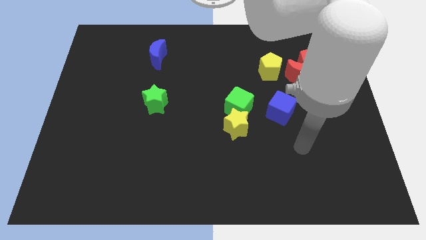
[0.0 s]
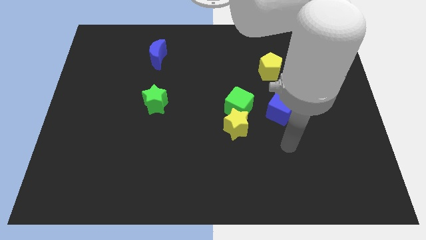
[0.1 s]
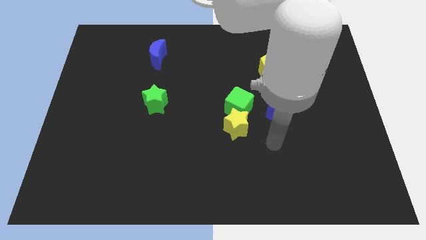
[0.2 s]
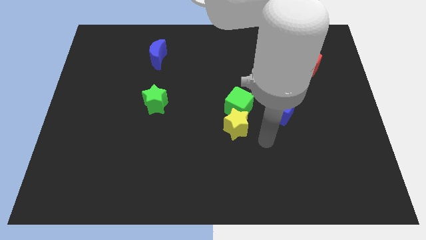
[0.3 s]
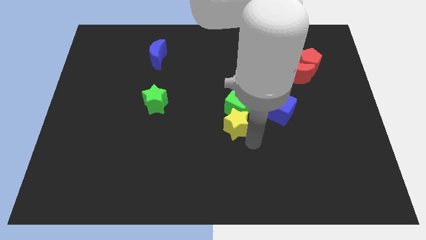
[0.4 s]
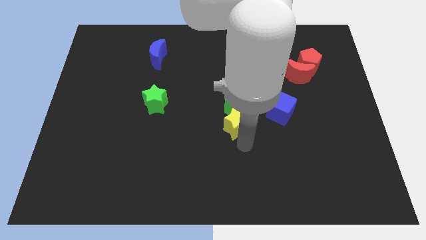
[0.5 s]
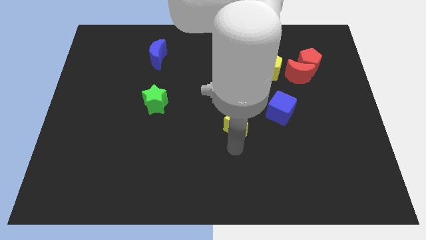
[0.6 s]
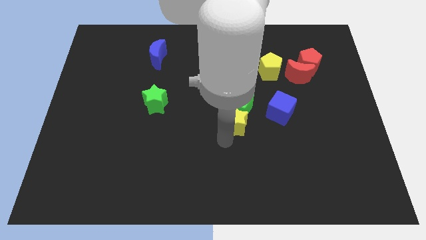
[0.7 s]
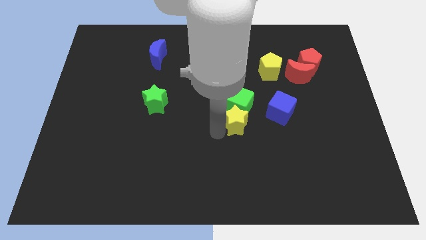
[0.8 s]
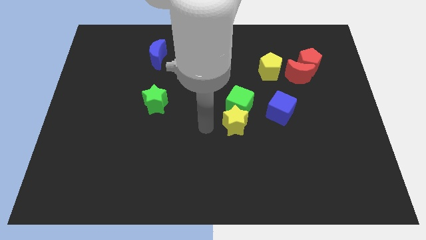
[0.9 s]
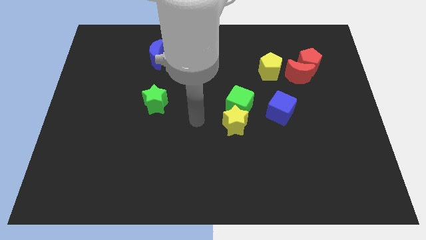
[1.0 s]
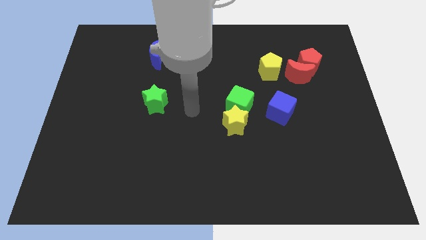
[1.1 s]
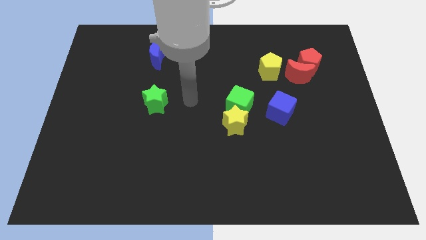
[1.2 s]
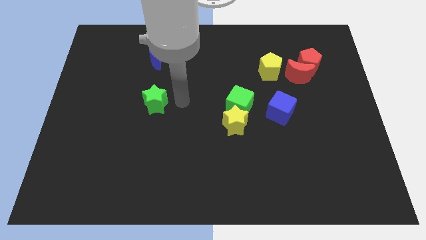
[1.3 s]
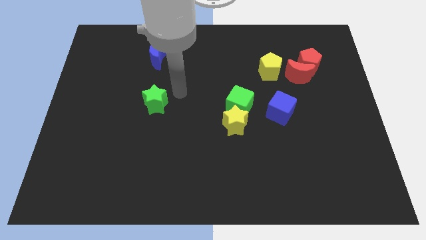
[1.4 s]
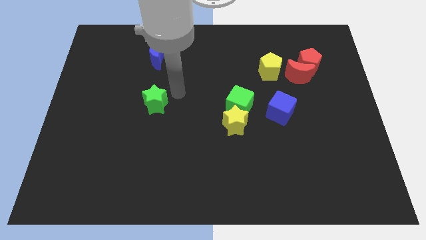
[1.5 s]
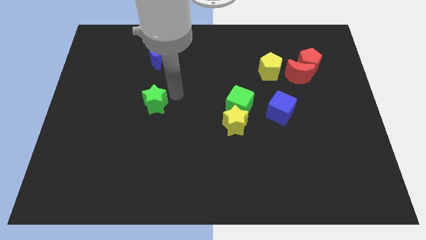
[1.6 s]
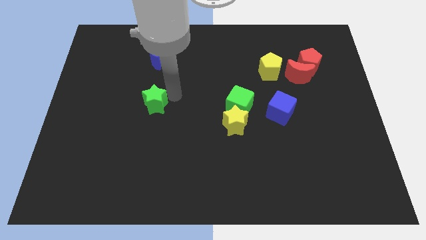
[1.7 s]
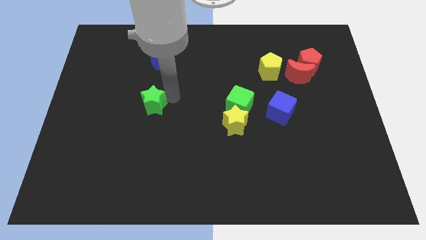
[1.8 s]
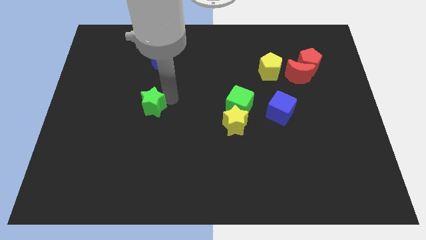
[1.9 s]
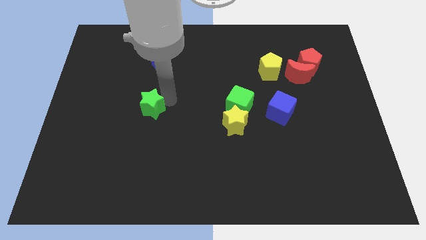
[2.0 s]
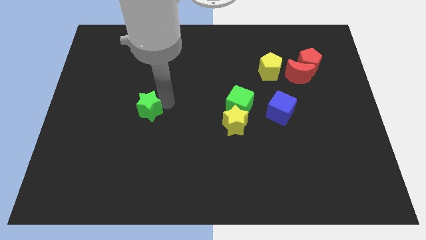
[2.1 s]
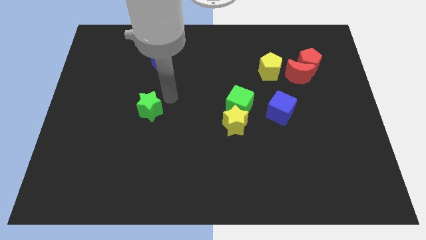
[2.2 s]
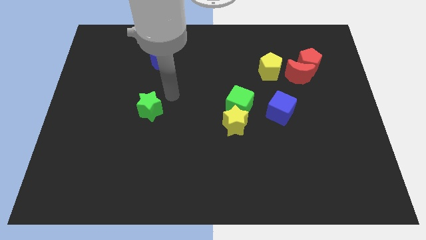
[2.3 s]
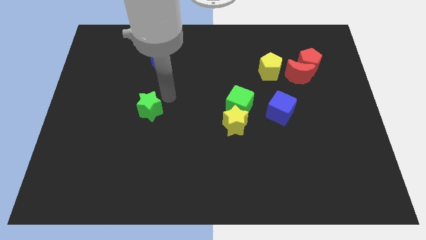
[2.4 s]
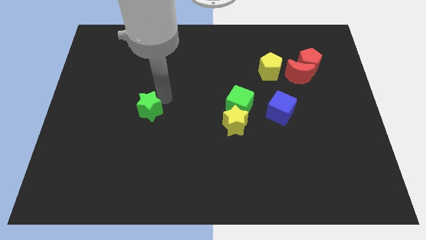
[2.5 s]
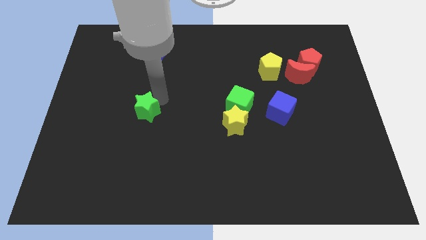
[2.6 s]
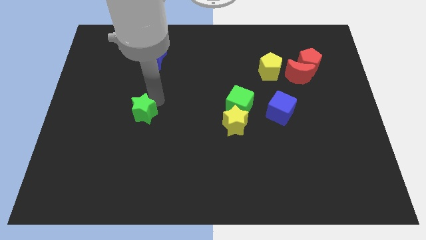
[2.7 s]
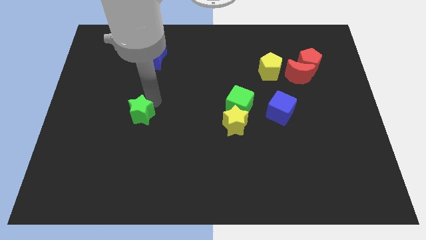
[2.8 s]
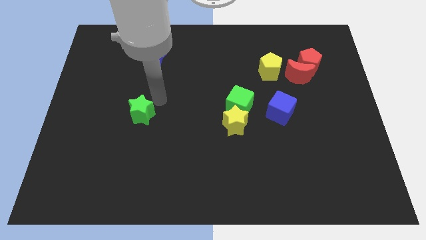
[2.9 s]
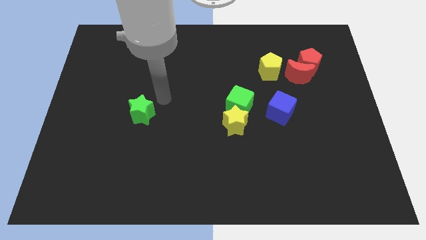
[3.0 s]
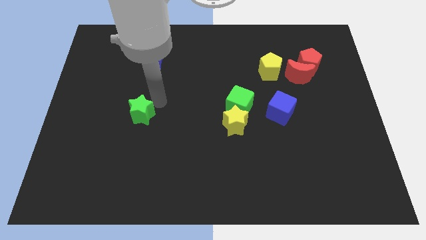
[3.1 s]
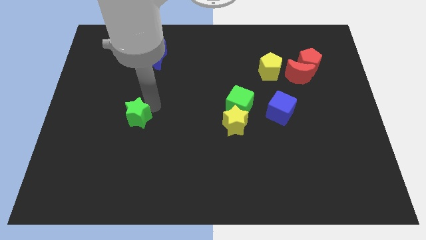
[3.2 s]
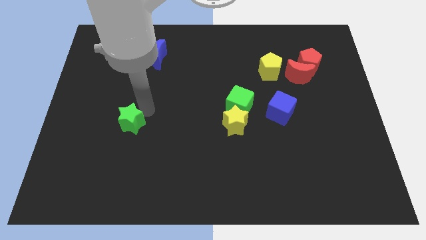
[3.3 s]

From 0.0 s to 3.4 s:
slide the green star slightly downwards and then left

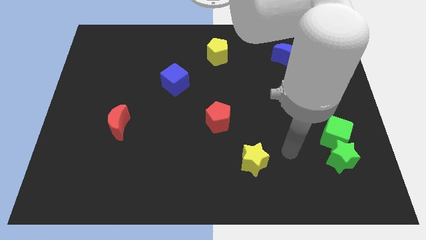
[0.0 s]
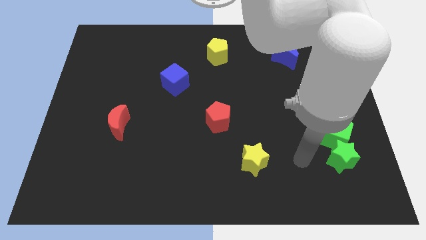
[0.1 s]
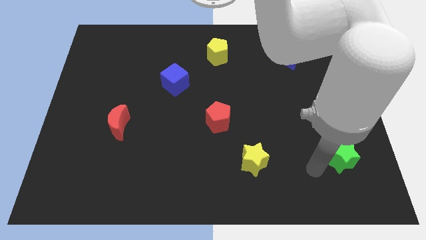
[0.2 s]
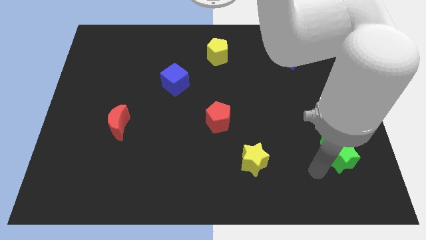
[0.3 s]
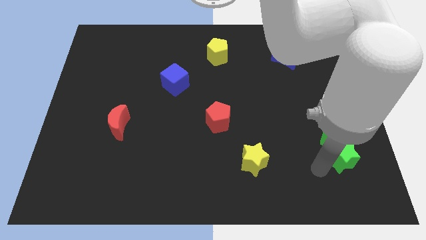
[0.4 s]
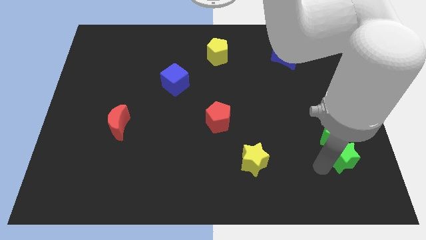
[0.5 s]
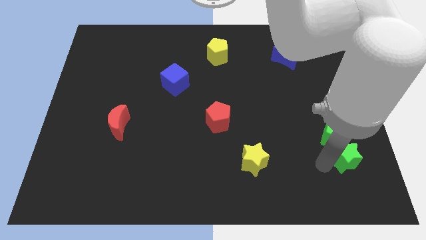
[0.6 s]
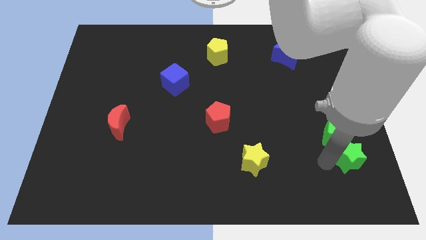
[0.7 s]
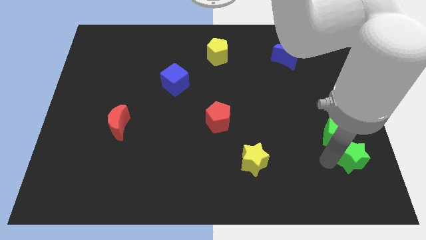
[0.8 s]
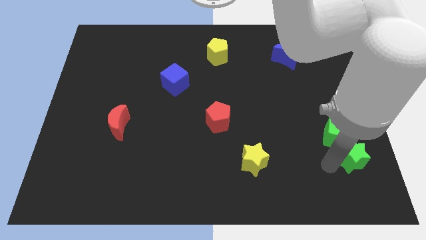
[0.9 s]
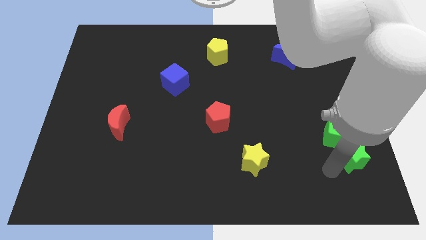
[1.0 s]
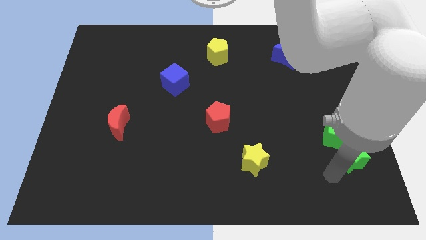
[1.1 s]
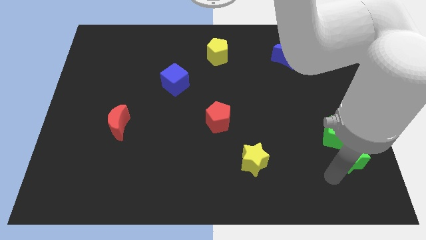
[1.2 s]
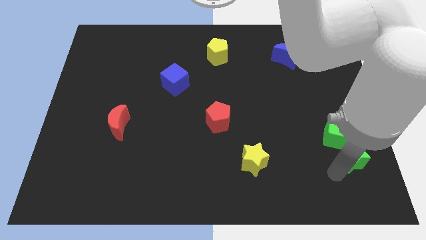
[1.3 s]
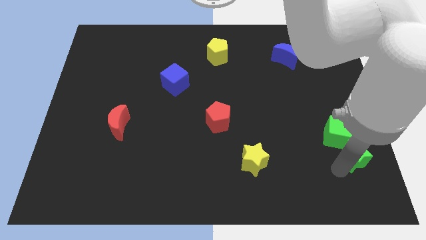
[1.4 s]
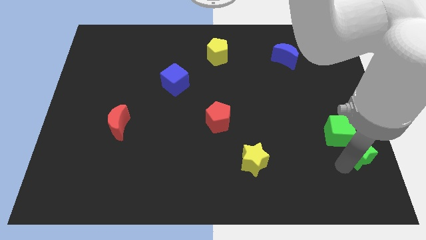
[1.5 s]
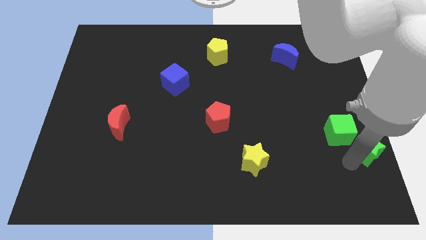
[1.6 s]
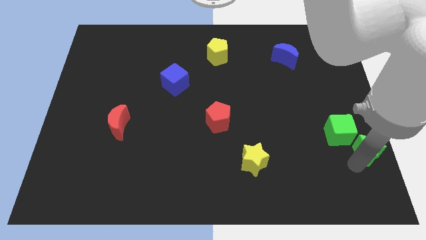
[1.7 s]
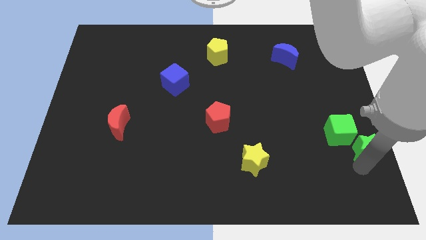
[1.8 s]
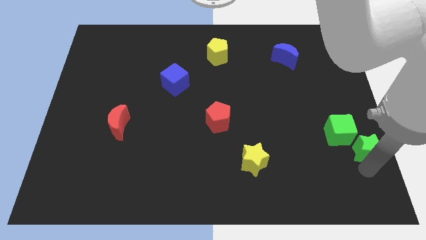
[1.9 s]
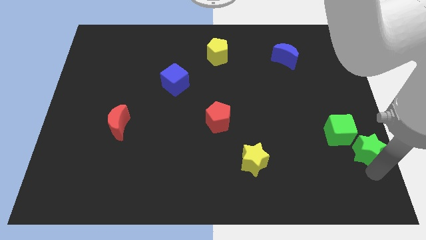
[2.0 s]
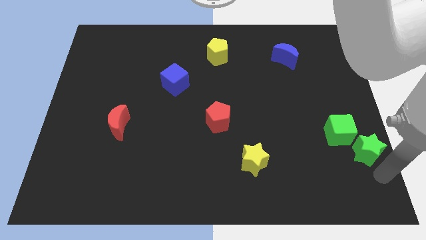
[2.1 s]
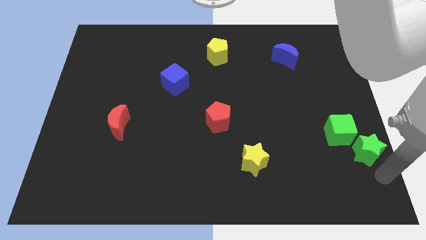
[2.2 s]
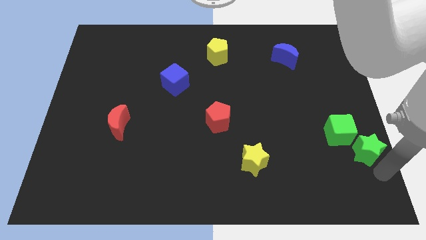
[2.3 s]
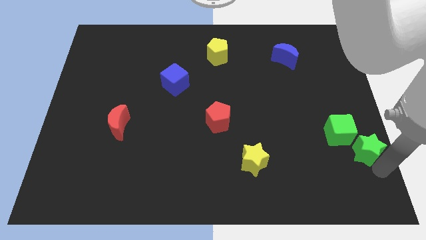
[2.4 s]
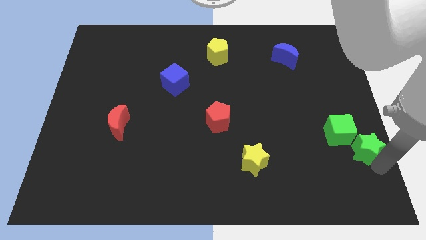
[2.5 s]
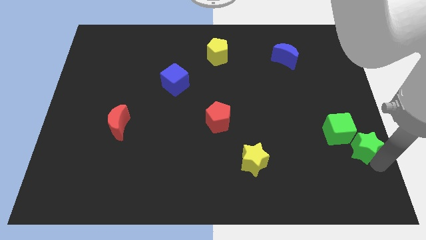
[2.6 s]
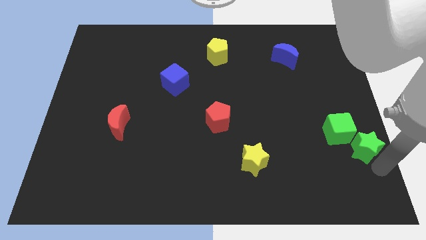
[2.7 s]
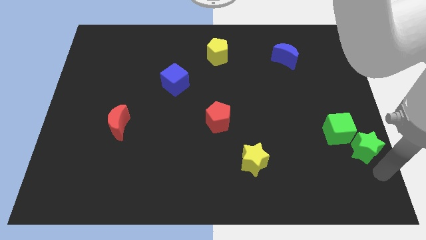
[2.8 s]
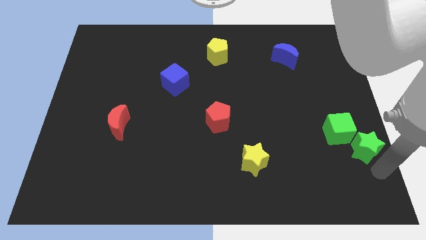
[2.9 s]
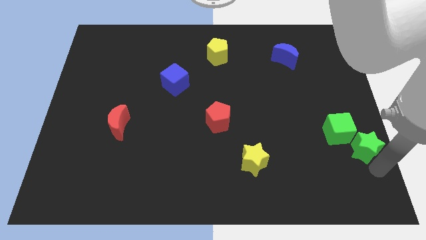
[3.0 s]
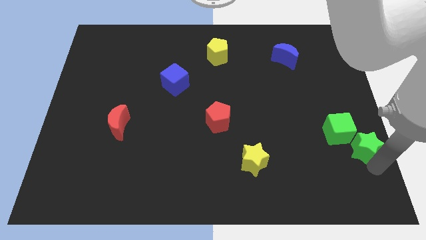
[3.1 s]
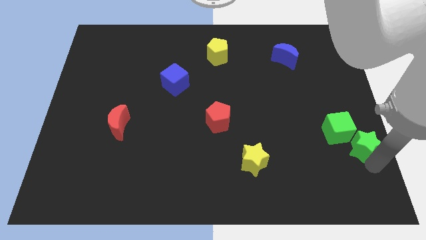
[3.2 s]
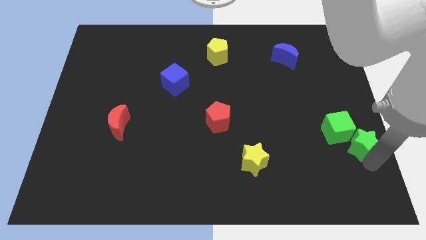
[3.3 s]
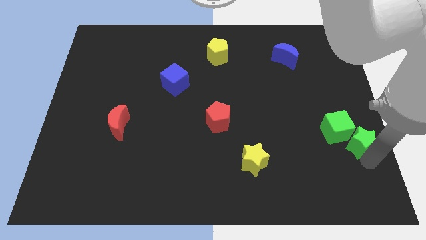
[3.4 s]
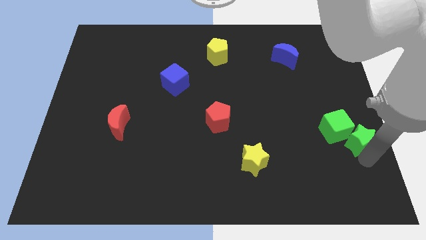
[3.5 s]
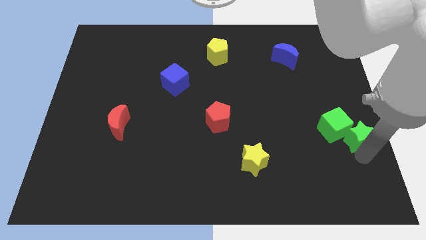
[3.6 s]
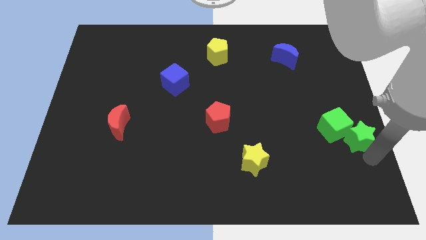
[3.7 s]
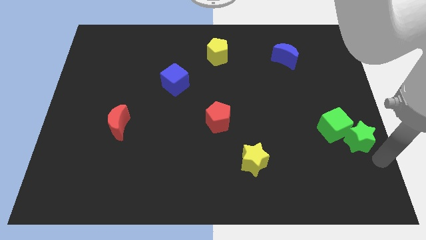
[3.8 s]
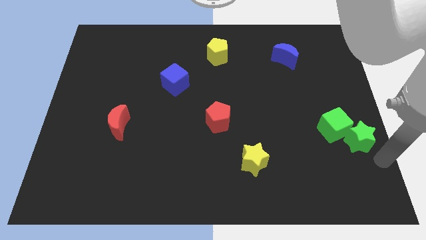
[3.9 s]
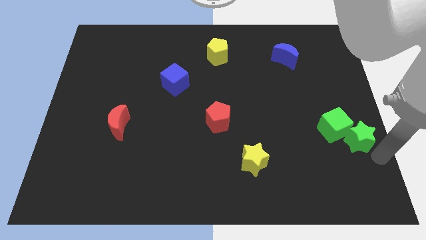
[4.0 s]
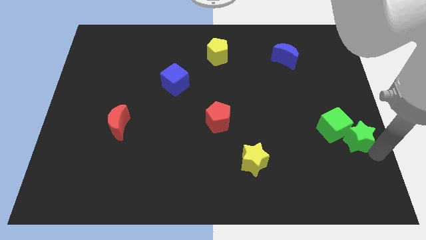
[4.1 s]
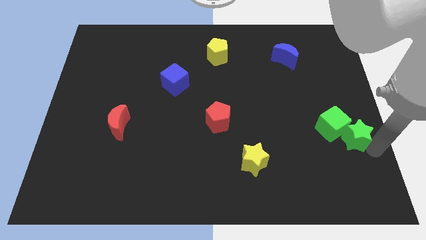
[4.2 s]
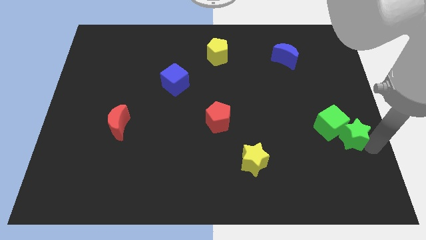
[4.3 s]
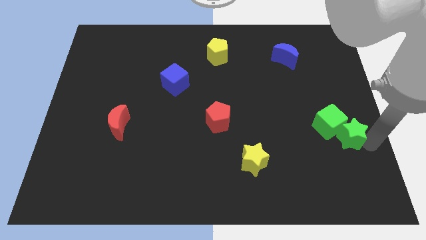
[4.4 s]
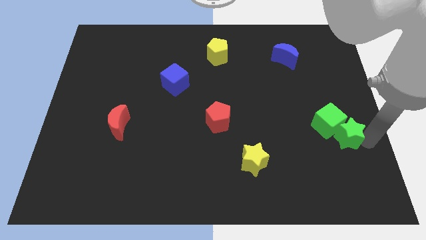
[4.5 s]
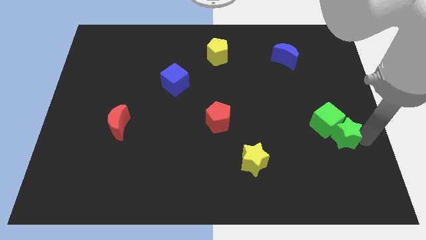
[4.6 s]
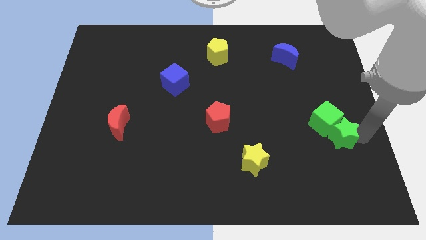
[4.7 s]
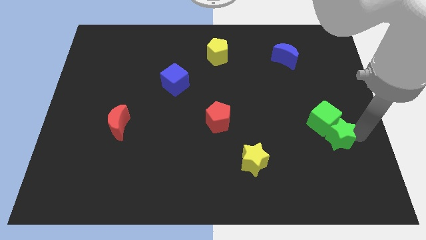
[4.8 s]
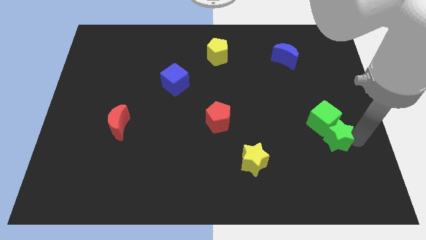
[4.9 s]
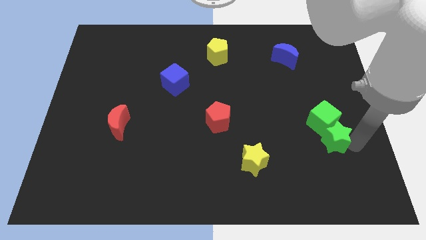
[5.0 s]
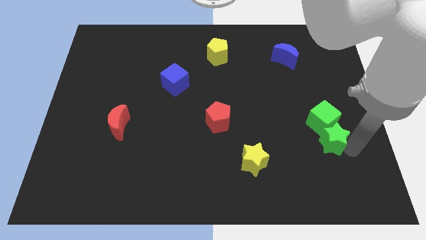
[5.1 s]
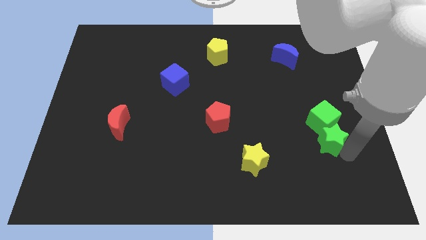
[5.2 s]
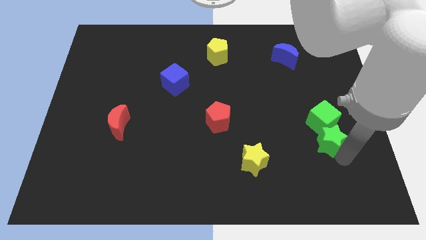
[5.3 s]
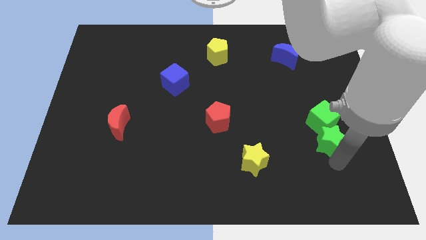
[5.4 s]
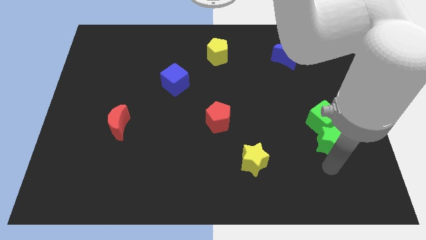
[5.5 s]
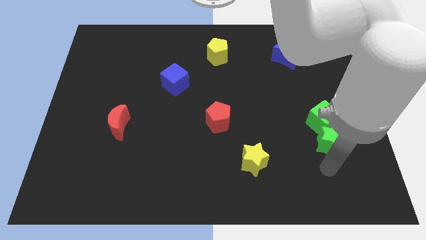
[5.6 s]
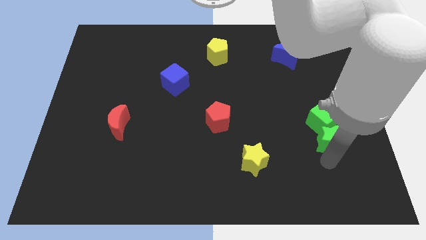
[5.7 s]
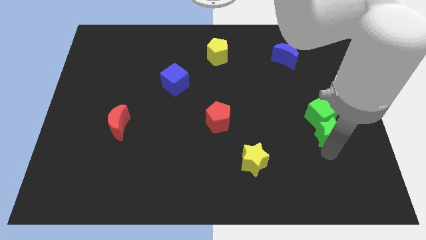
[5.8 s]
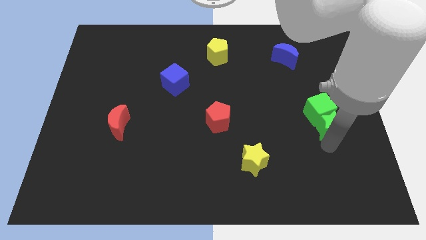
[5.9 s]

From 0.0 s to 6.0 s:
move the green star slightly up
